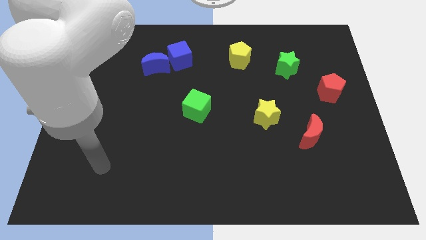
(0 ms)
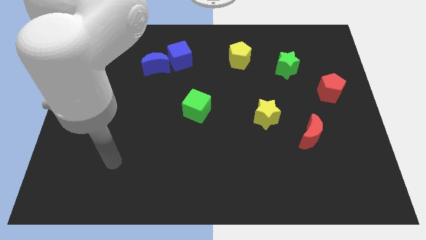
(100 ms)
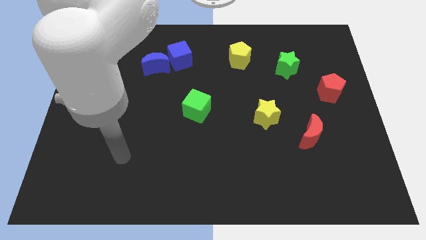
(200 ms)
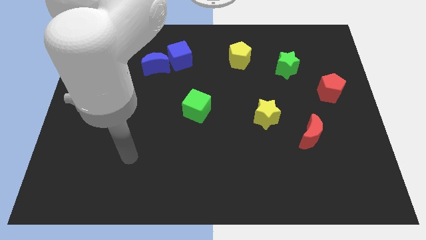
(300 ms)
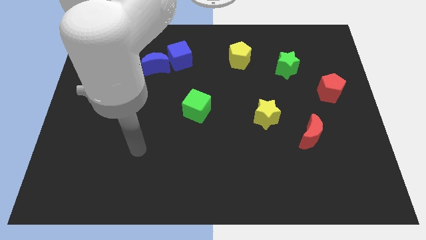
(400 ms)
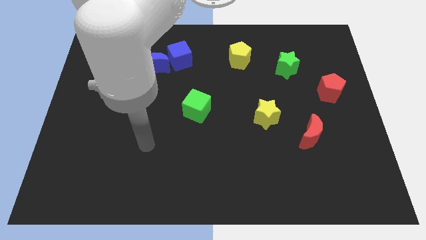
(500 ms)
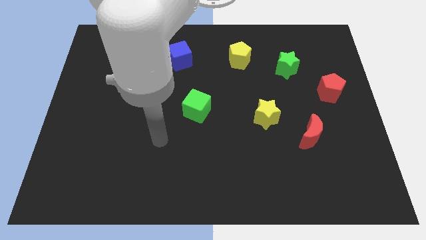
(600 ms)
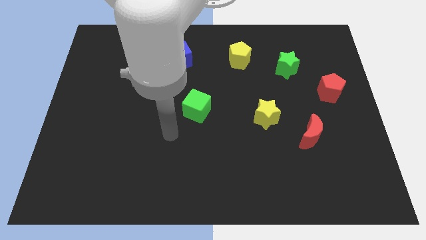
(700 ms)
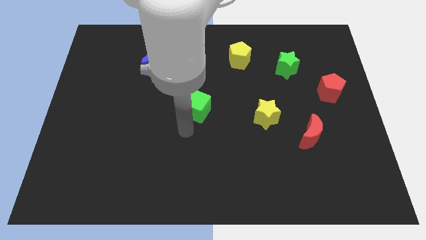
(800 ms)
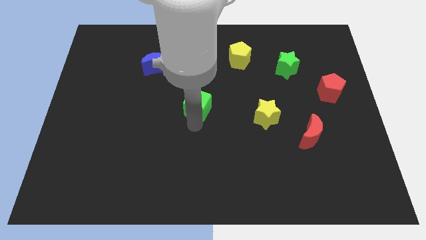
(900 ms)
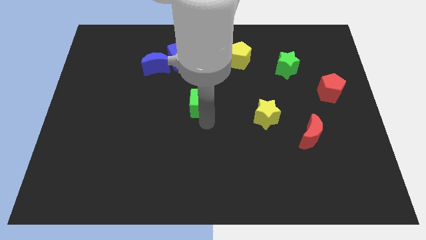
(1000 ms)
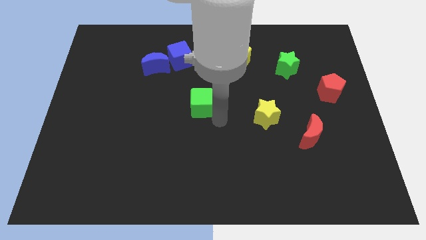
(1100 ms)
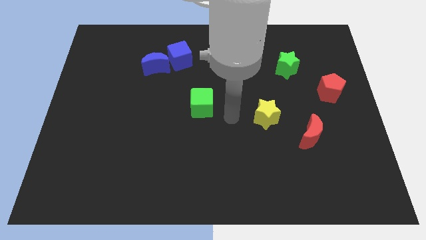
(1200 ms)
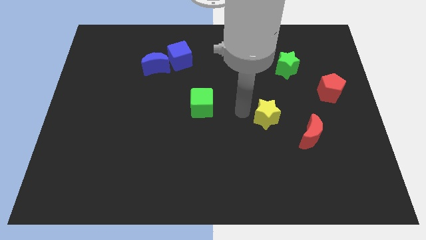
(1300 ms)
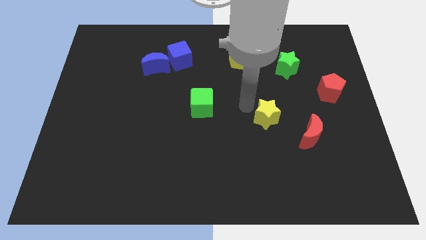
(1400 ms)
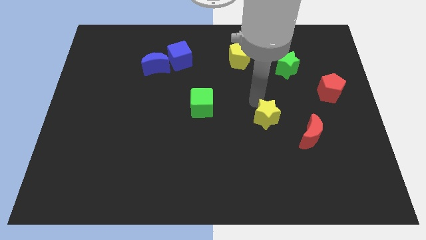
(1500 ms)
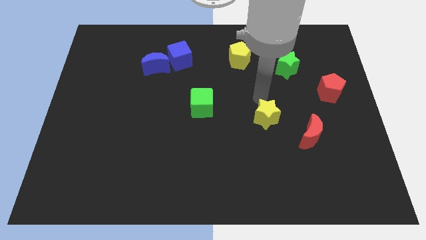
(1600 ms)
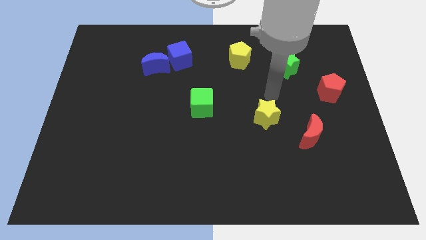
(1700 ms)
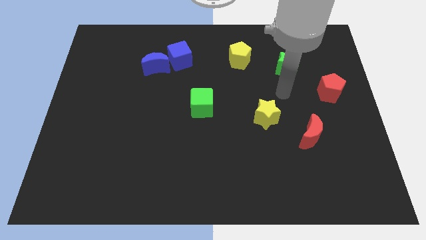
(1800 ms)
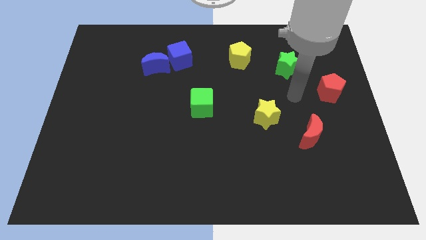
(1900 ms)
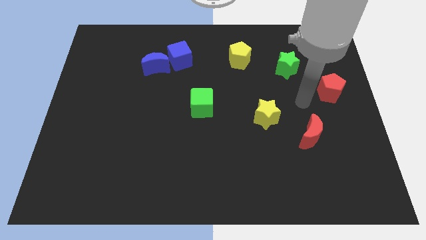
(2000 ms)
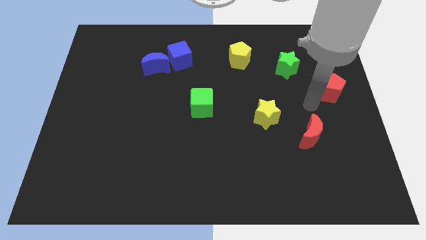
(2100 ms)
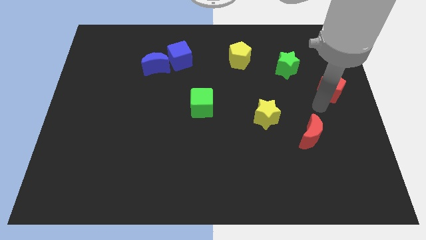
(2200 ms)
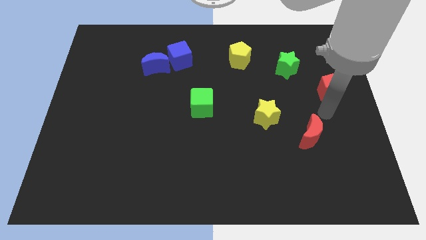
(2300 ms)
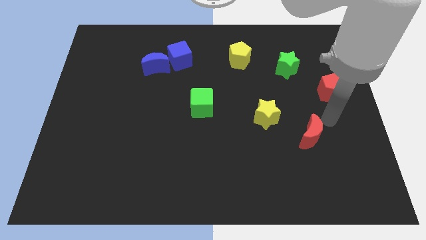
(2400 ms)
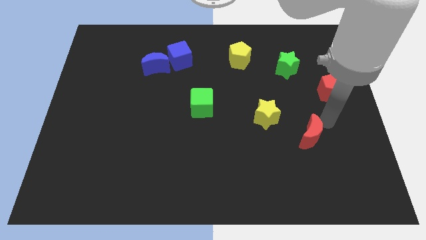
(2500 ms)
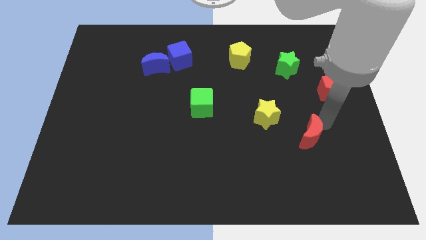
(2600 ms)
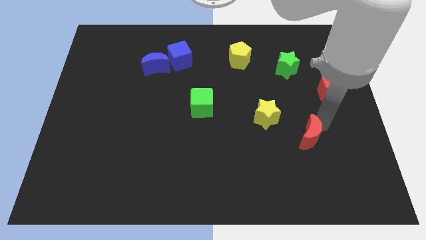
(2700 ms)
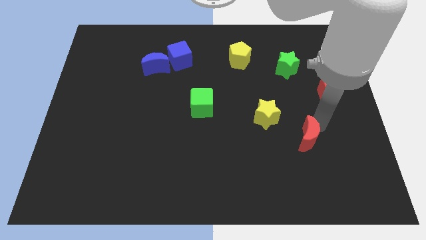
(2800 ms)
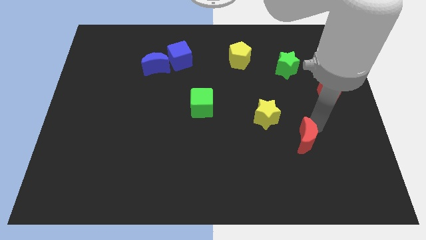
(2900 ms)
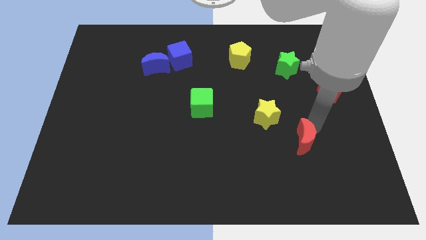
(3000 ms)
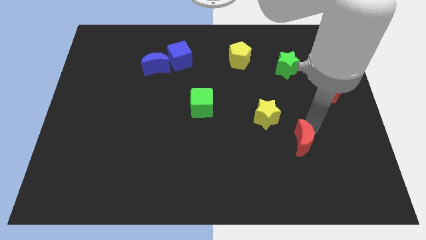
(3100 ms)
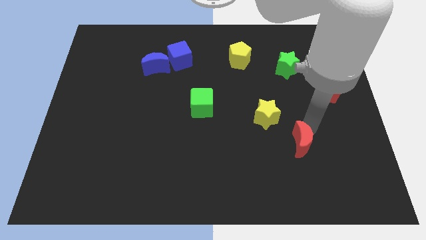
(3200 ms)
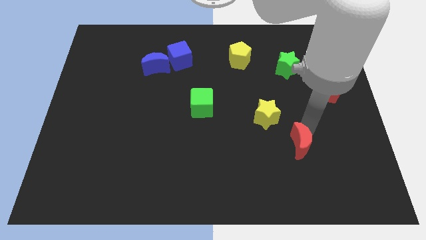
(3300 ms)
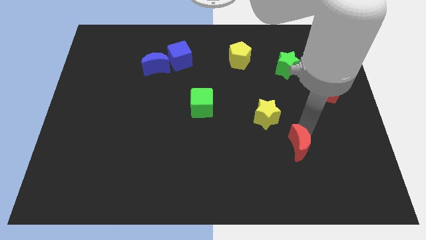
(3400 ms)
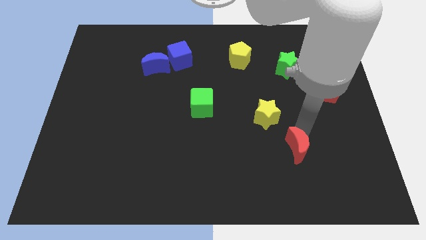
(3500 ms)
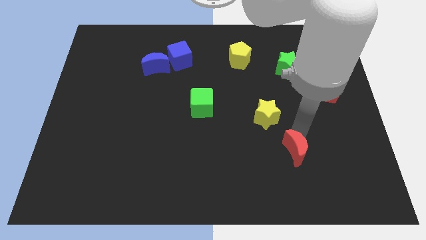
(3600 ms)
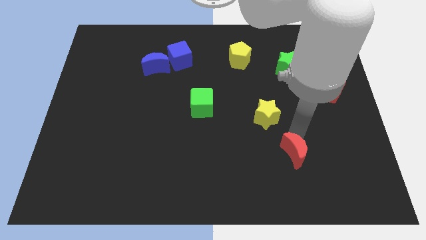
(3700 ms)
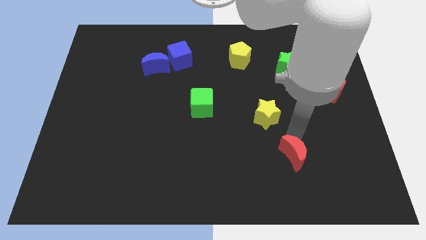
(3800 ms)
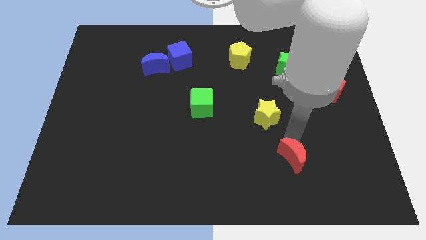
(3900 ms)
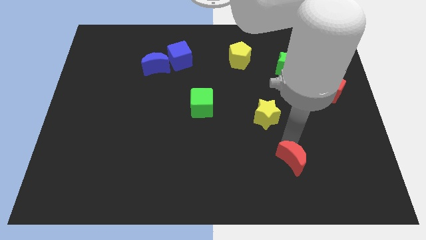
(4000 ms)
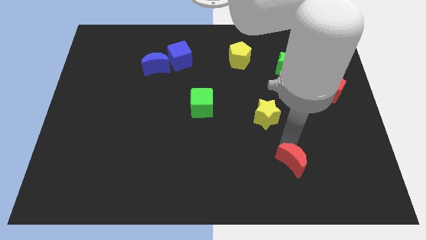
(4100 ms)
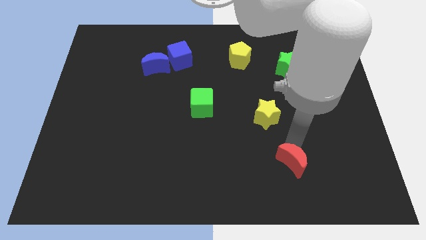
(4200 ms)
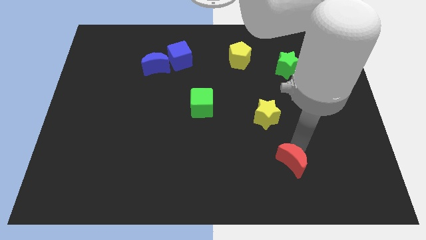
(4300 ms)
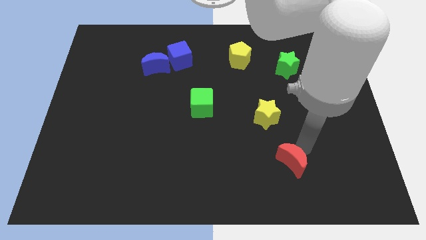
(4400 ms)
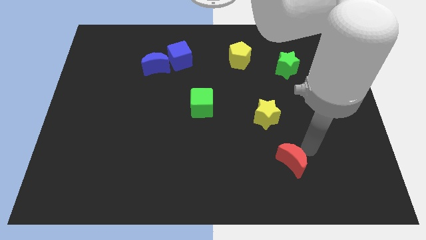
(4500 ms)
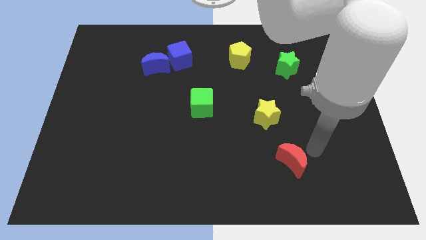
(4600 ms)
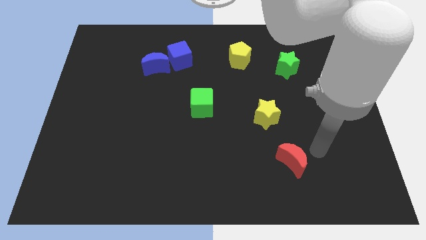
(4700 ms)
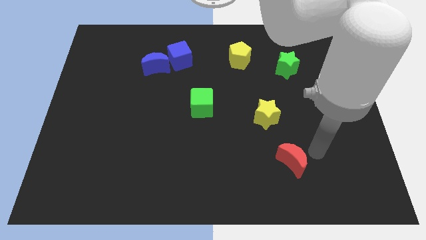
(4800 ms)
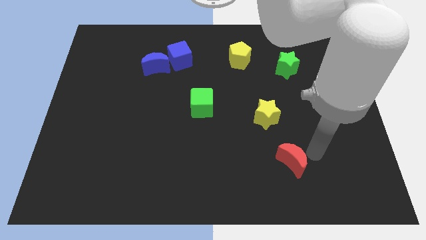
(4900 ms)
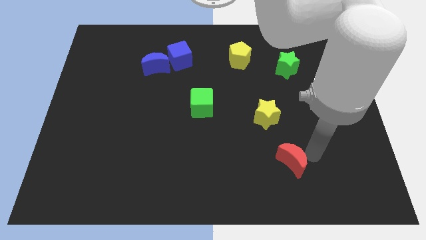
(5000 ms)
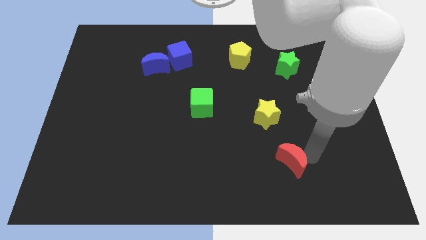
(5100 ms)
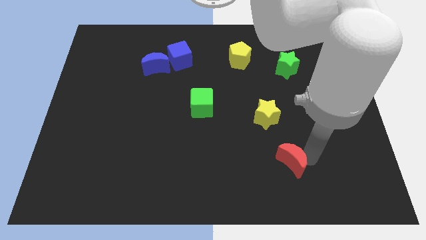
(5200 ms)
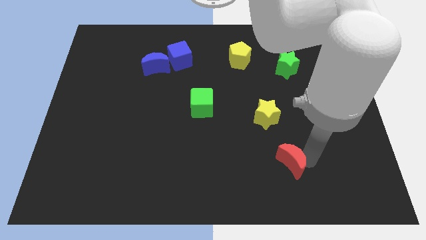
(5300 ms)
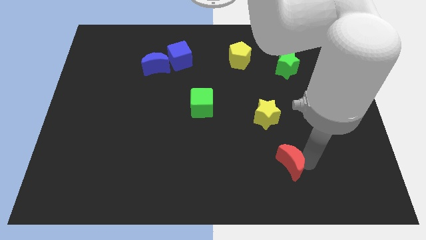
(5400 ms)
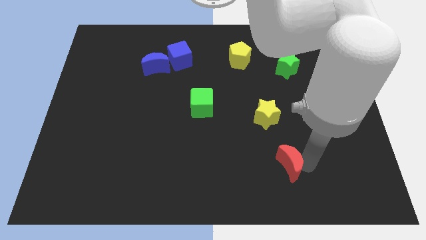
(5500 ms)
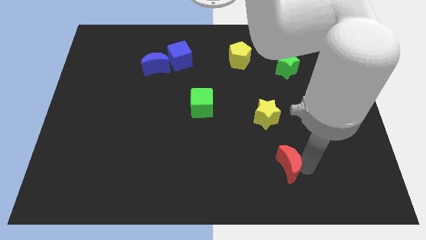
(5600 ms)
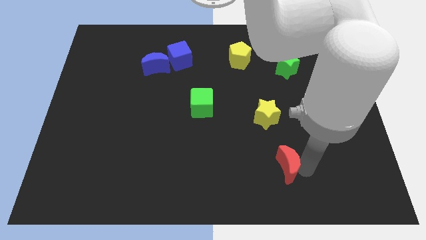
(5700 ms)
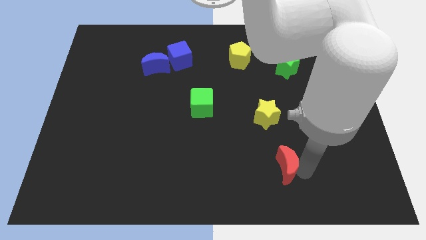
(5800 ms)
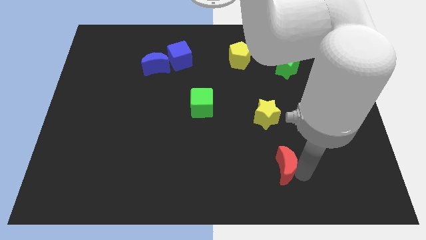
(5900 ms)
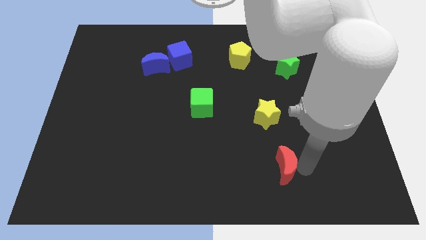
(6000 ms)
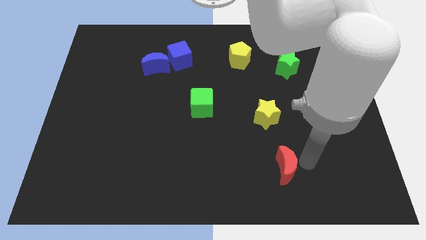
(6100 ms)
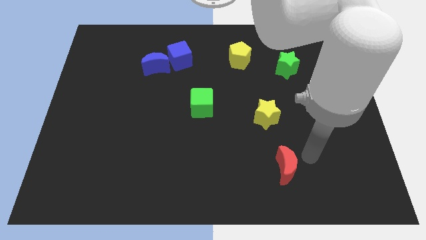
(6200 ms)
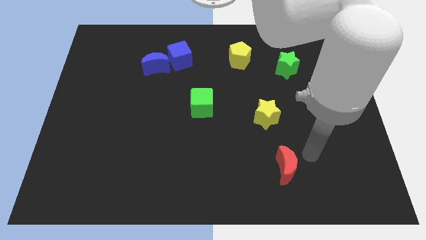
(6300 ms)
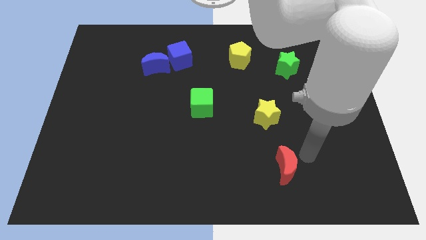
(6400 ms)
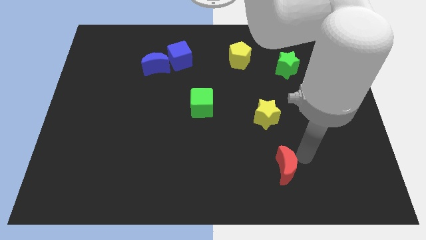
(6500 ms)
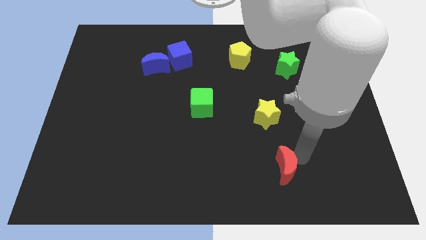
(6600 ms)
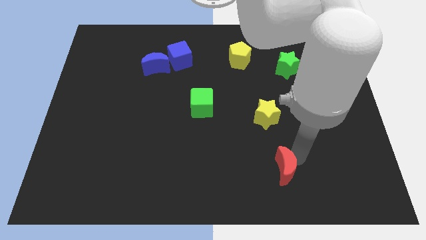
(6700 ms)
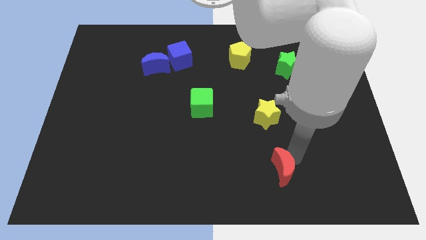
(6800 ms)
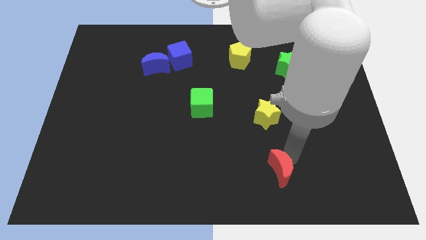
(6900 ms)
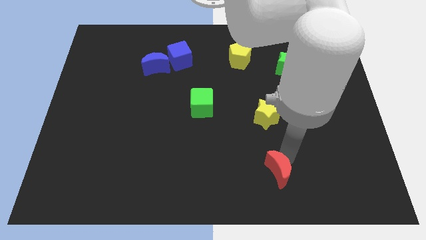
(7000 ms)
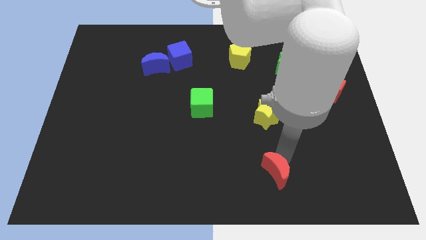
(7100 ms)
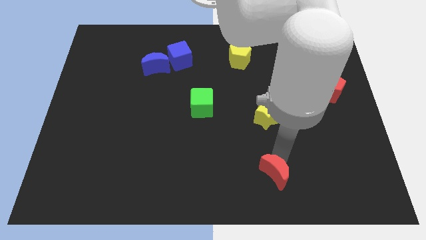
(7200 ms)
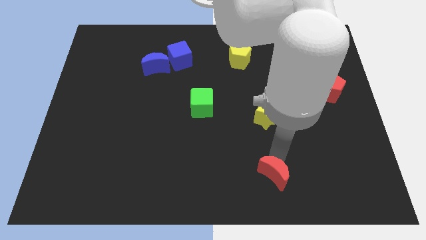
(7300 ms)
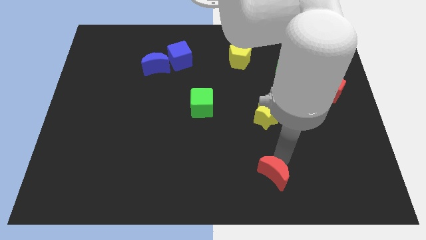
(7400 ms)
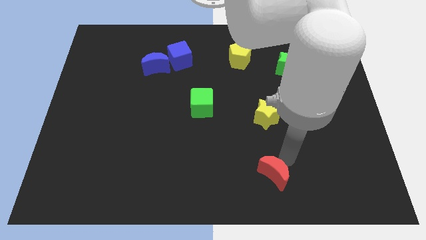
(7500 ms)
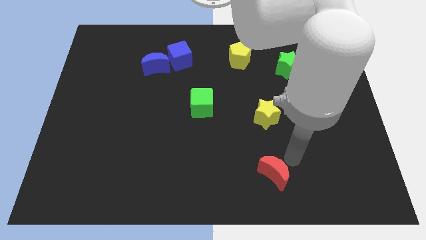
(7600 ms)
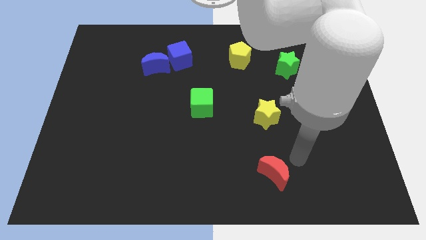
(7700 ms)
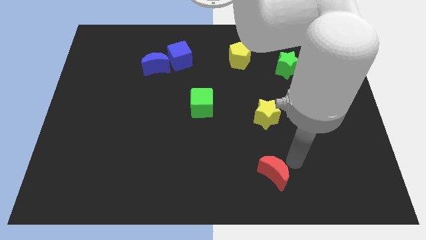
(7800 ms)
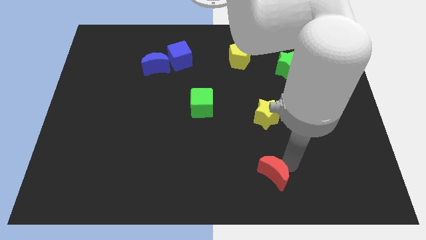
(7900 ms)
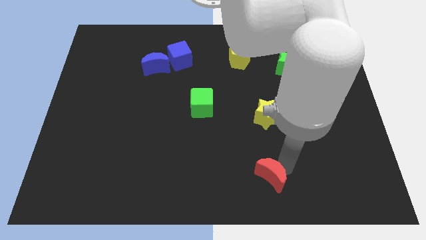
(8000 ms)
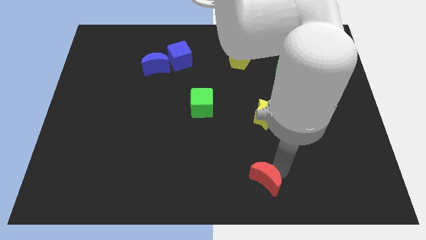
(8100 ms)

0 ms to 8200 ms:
slide the red moon to the bottom side
